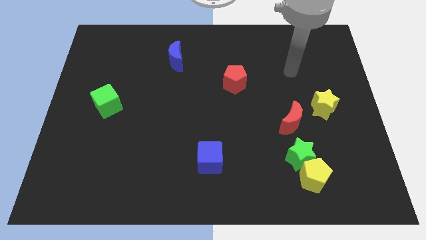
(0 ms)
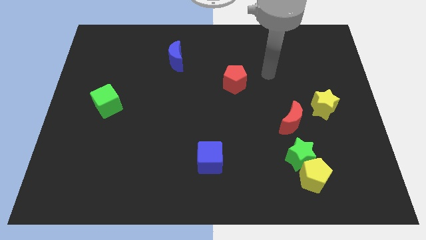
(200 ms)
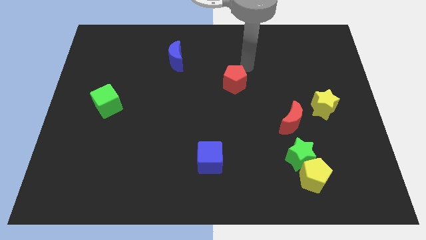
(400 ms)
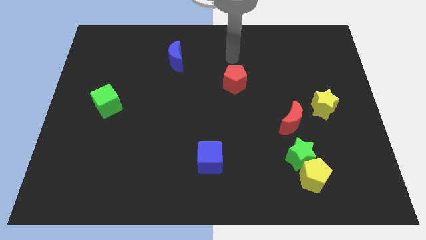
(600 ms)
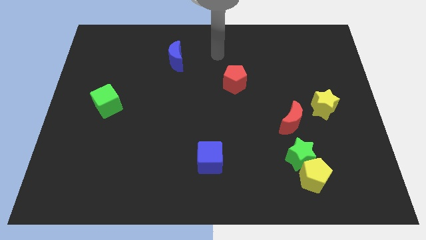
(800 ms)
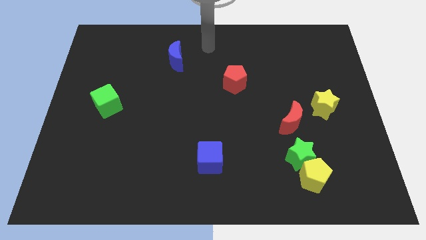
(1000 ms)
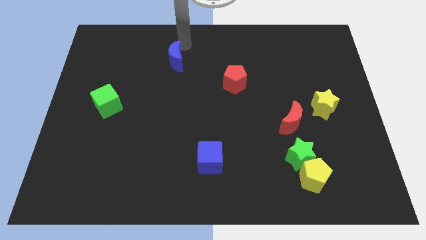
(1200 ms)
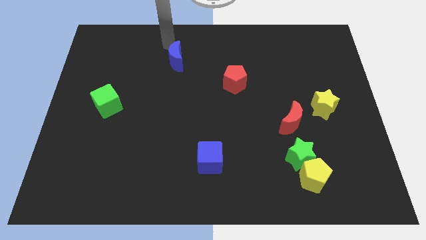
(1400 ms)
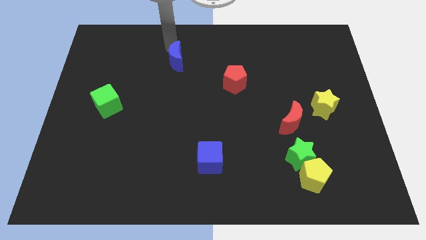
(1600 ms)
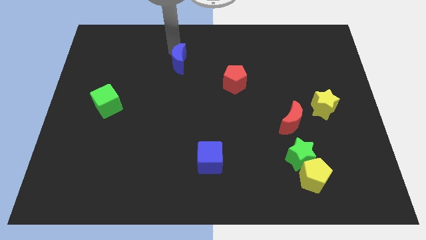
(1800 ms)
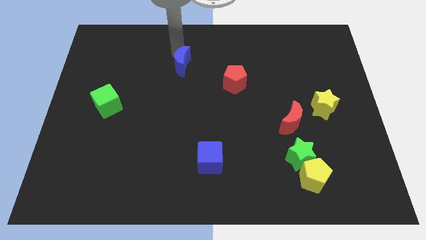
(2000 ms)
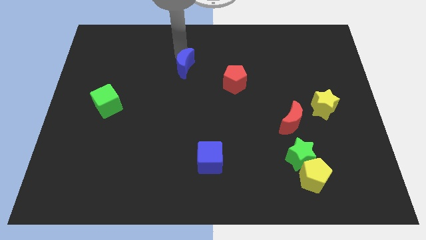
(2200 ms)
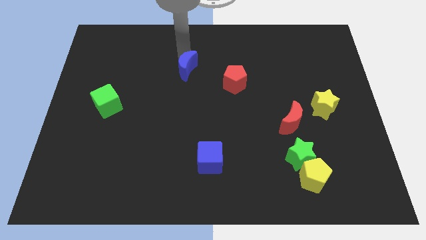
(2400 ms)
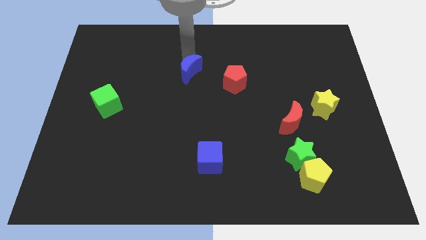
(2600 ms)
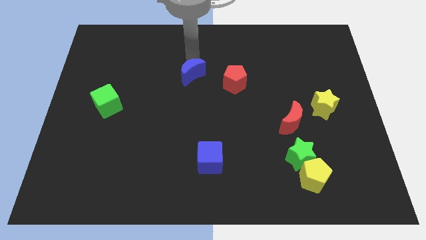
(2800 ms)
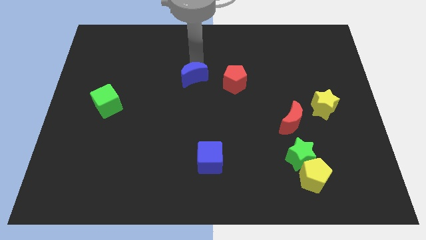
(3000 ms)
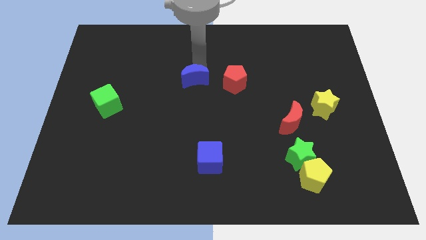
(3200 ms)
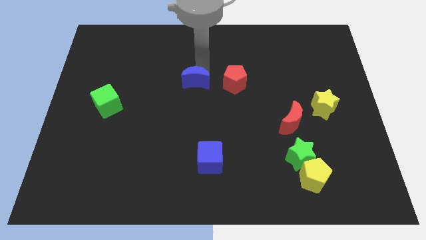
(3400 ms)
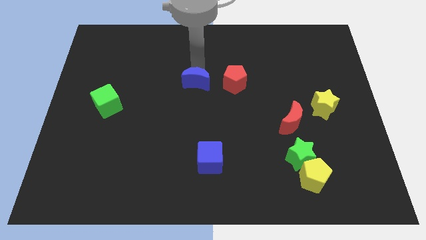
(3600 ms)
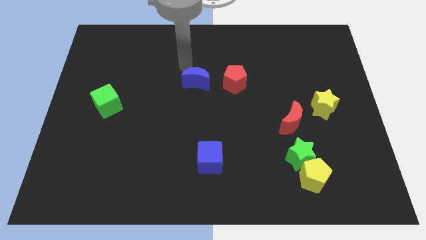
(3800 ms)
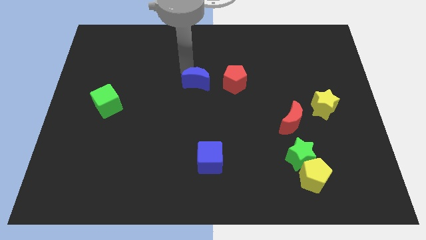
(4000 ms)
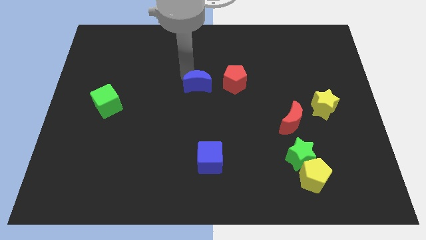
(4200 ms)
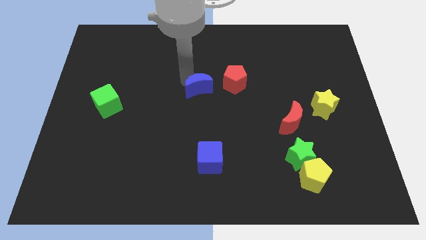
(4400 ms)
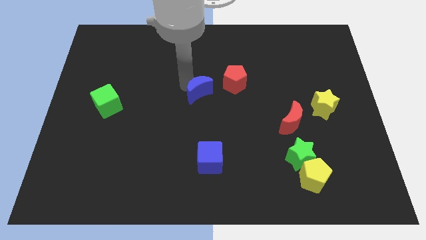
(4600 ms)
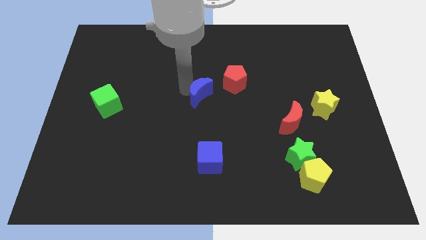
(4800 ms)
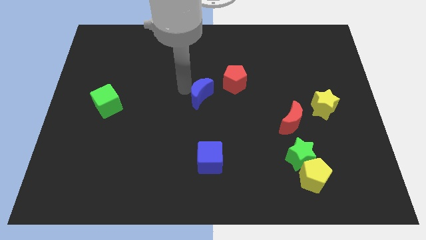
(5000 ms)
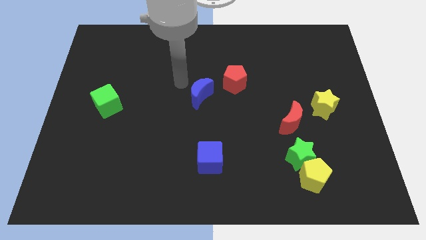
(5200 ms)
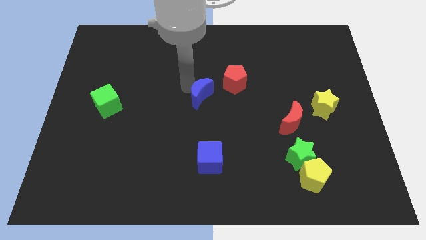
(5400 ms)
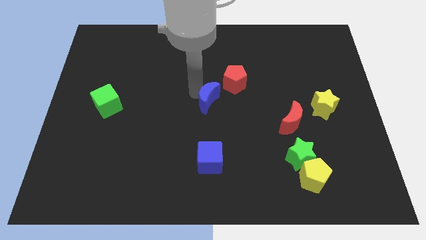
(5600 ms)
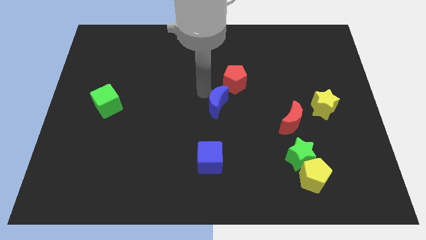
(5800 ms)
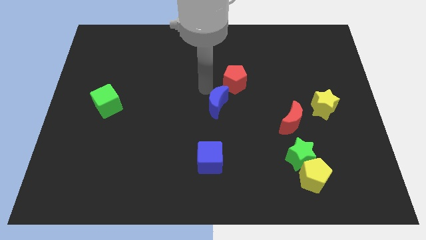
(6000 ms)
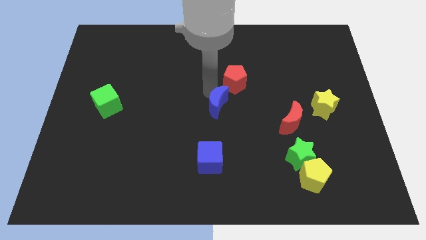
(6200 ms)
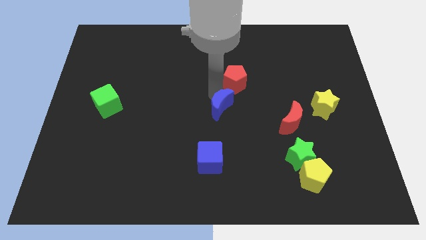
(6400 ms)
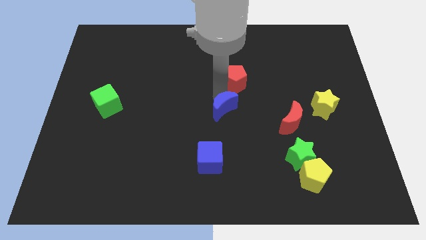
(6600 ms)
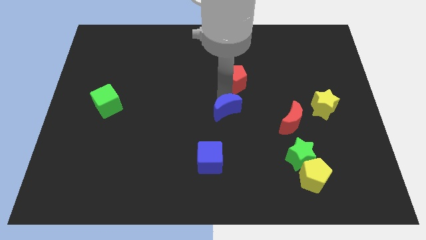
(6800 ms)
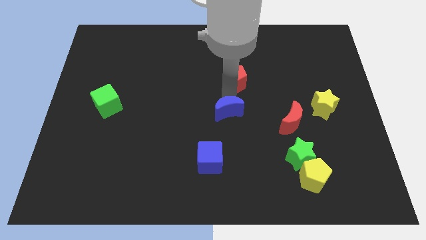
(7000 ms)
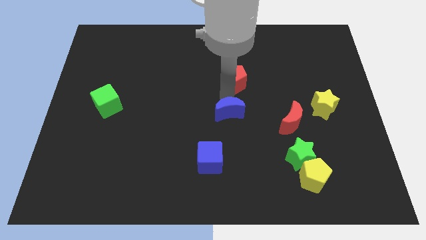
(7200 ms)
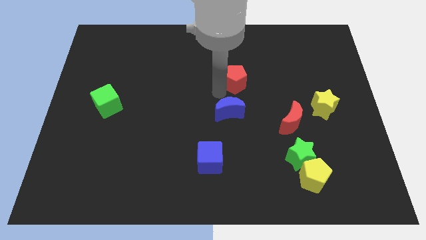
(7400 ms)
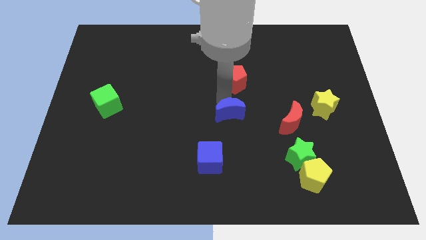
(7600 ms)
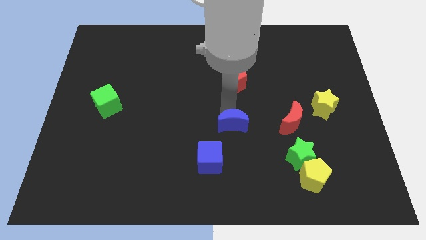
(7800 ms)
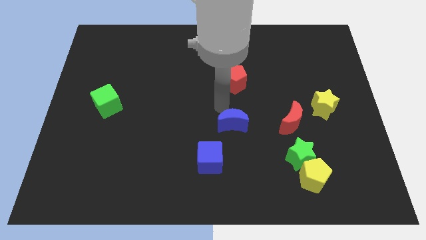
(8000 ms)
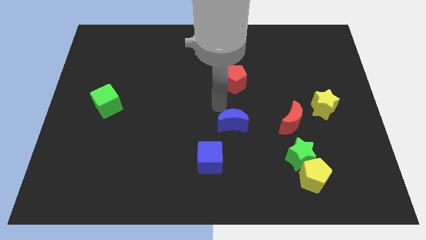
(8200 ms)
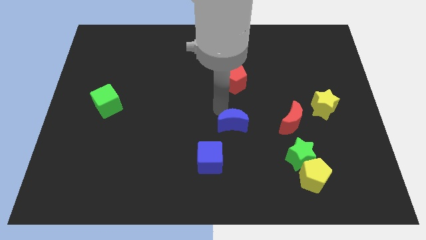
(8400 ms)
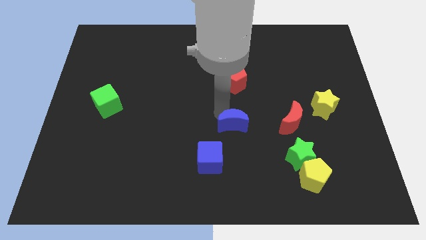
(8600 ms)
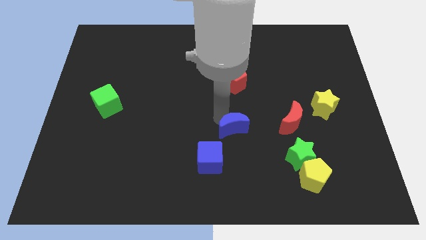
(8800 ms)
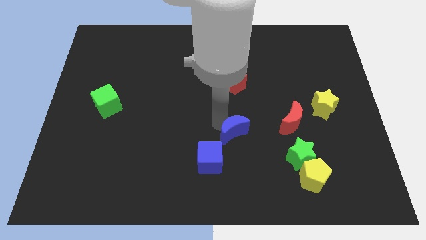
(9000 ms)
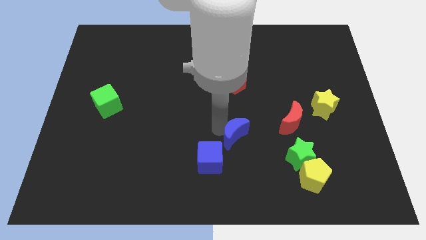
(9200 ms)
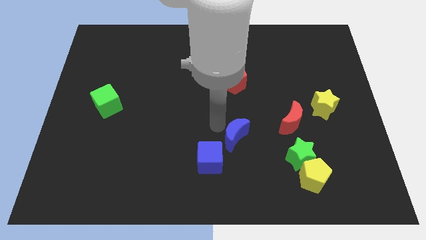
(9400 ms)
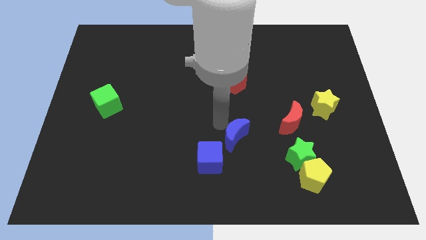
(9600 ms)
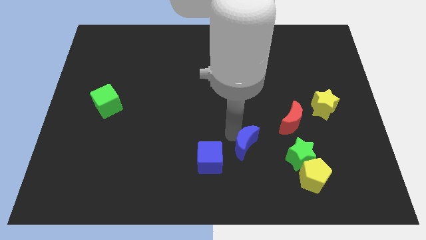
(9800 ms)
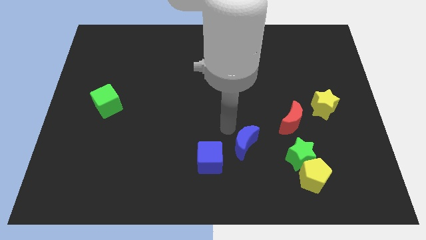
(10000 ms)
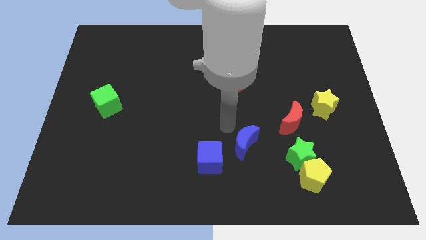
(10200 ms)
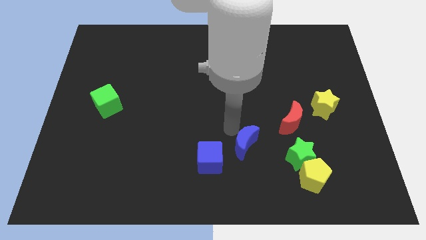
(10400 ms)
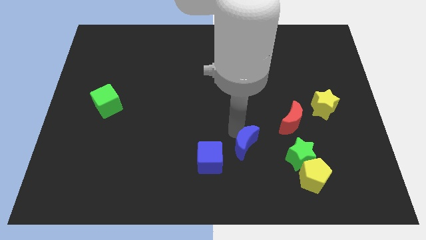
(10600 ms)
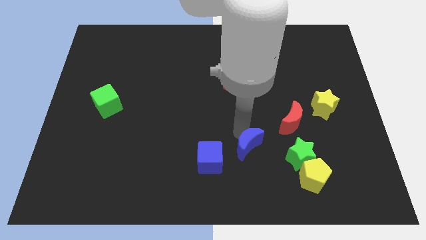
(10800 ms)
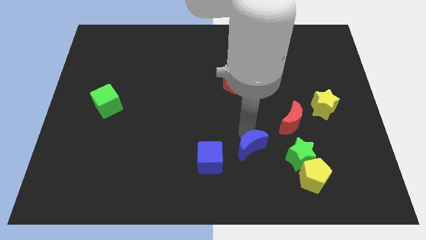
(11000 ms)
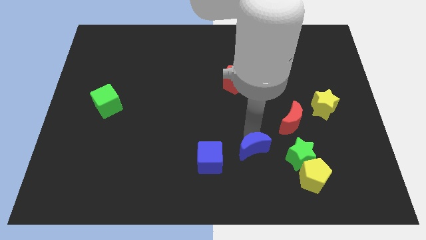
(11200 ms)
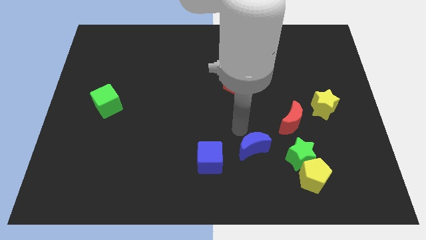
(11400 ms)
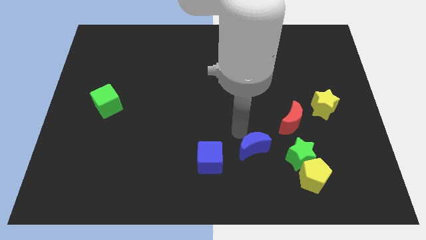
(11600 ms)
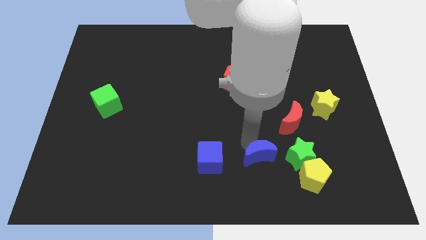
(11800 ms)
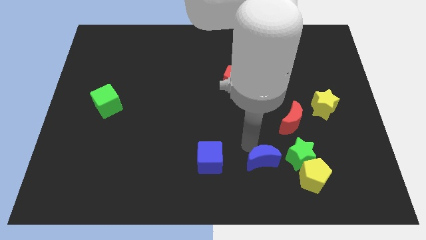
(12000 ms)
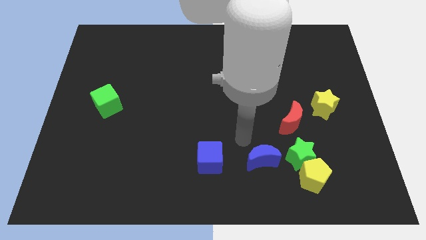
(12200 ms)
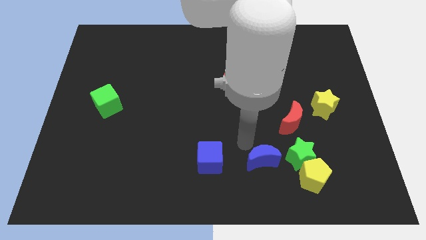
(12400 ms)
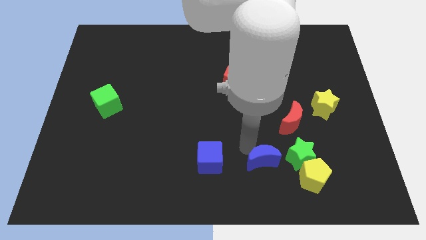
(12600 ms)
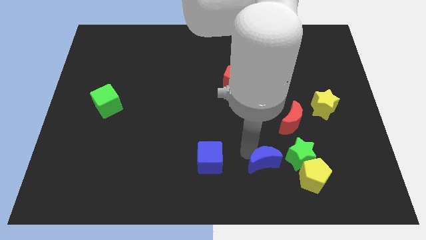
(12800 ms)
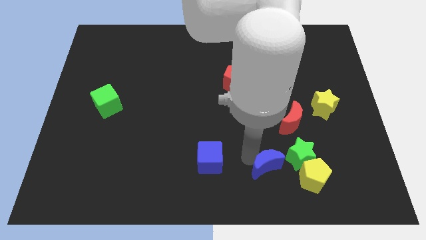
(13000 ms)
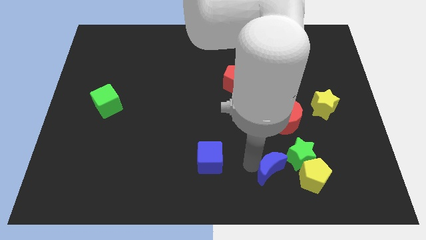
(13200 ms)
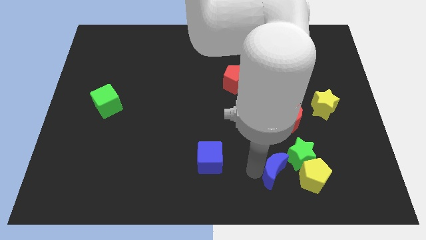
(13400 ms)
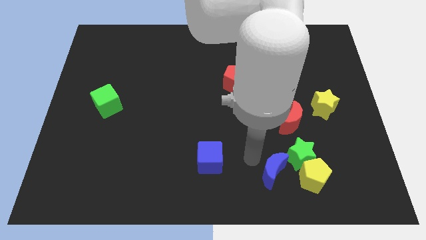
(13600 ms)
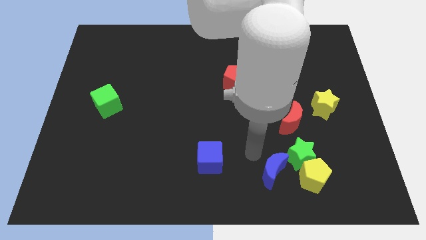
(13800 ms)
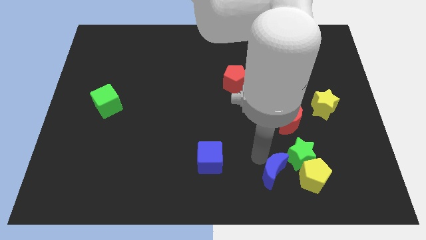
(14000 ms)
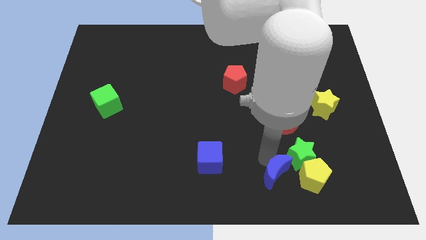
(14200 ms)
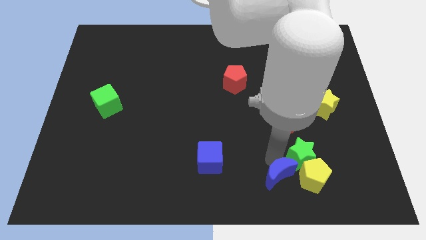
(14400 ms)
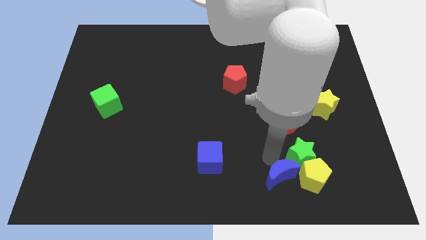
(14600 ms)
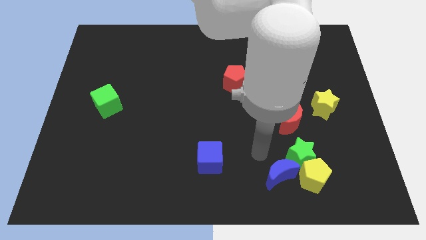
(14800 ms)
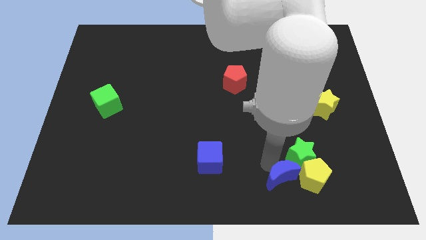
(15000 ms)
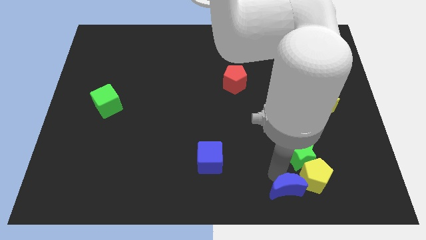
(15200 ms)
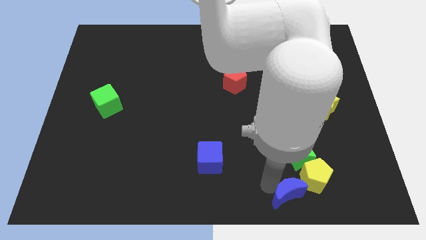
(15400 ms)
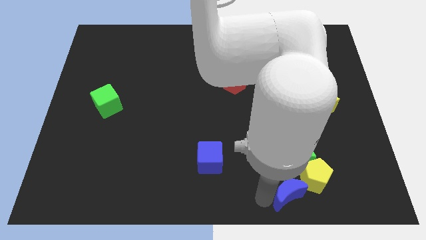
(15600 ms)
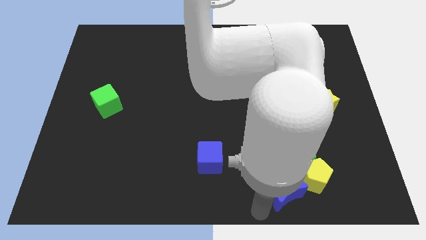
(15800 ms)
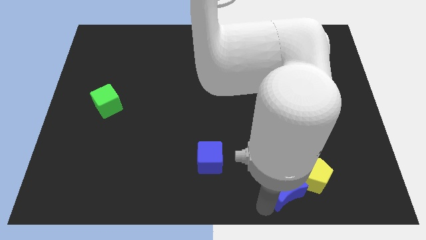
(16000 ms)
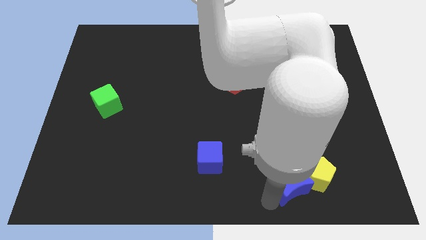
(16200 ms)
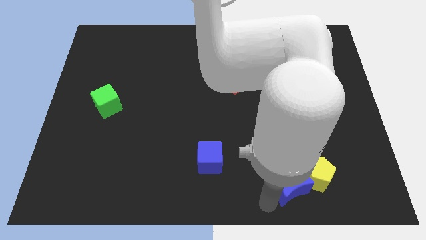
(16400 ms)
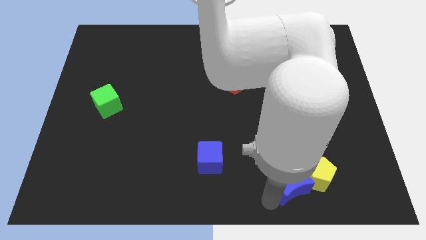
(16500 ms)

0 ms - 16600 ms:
push the blue moon close to the yellow pentagon

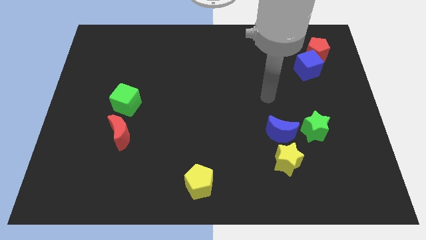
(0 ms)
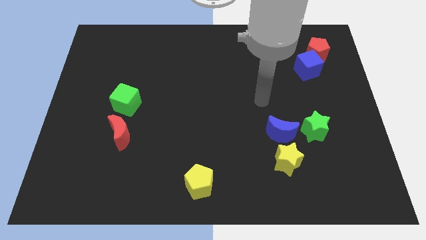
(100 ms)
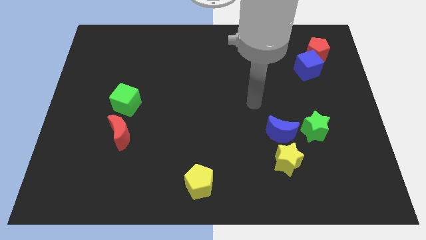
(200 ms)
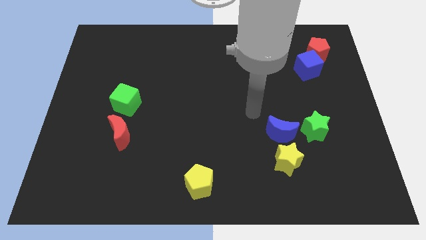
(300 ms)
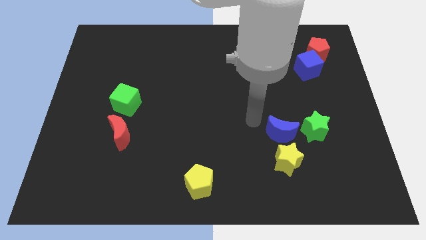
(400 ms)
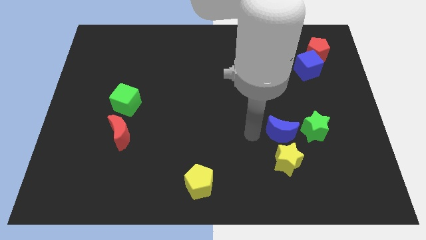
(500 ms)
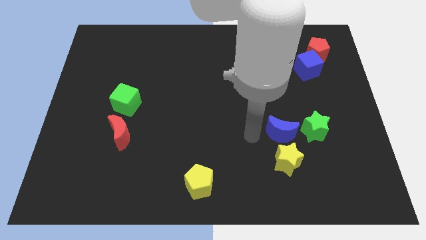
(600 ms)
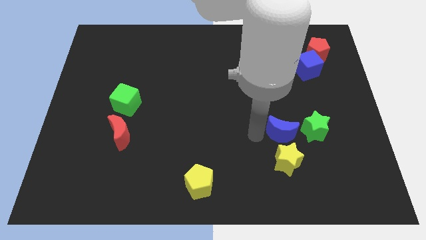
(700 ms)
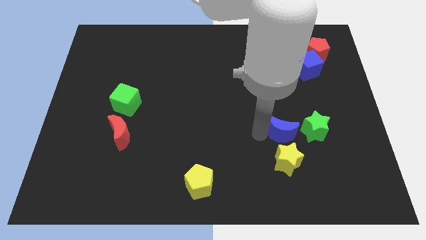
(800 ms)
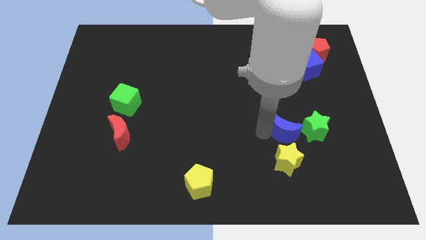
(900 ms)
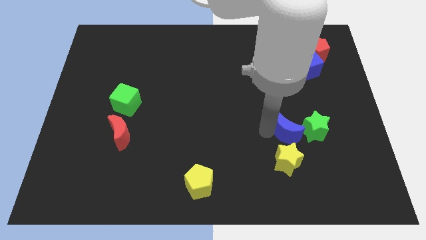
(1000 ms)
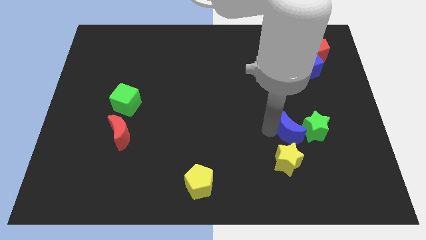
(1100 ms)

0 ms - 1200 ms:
slide the blue moon to the green star
